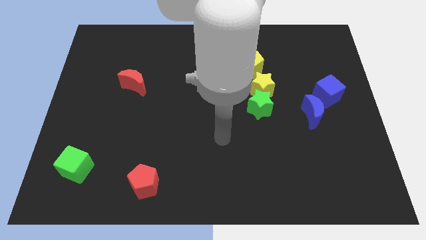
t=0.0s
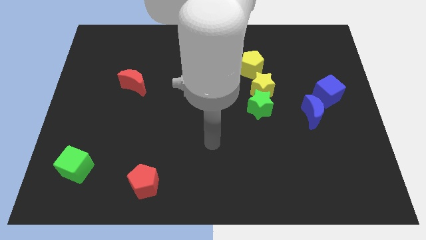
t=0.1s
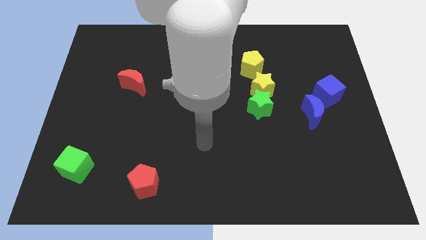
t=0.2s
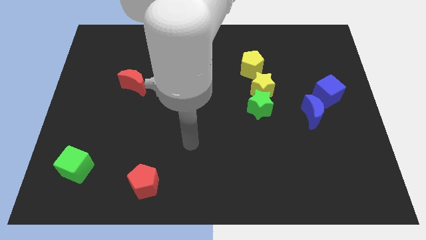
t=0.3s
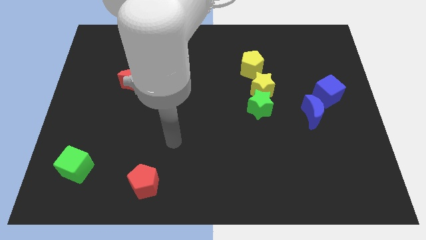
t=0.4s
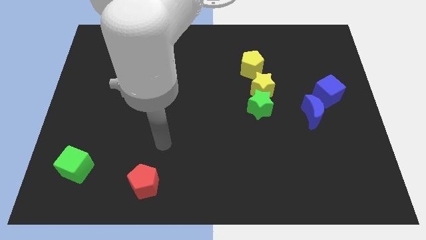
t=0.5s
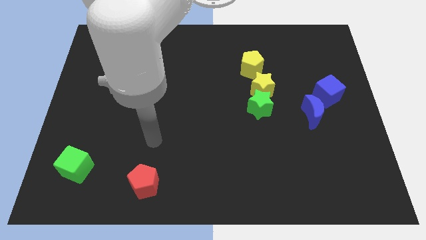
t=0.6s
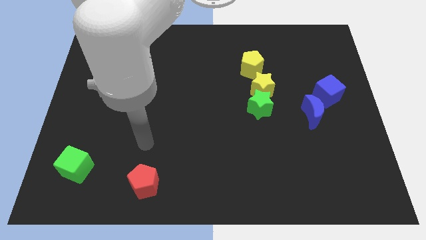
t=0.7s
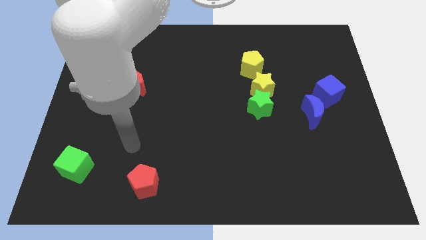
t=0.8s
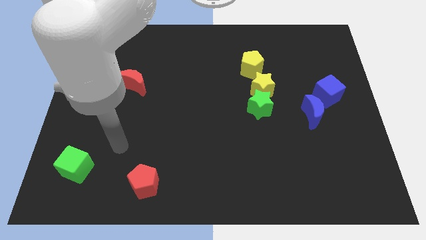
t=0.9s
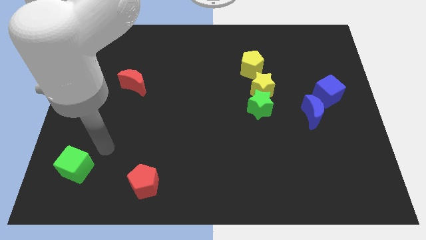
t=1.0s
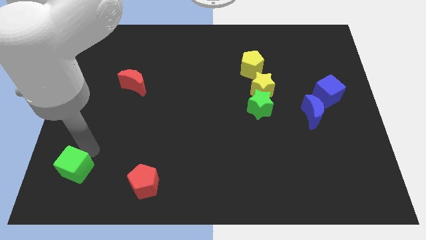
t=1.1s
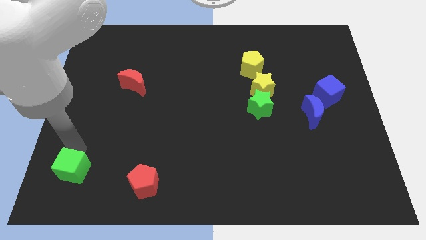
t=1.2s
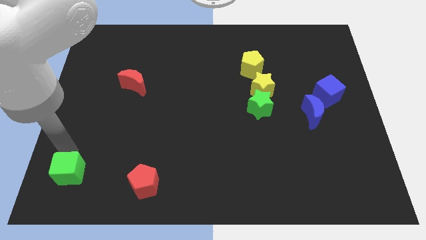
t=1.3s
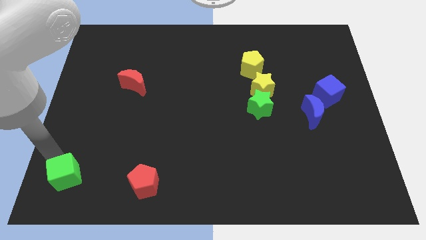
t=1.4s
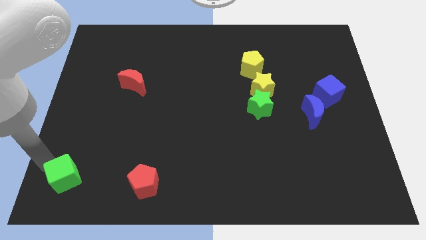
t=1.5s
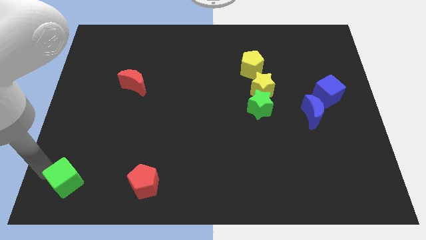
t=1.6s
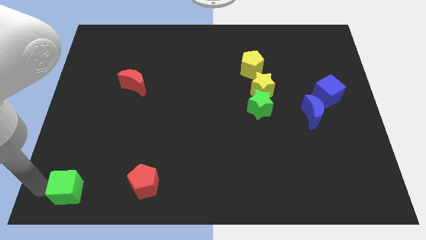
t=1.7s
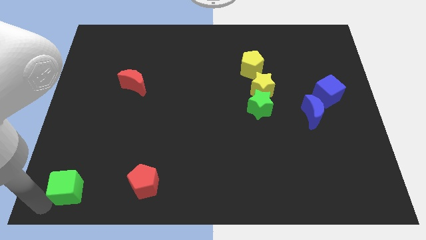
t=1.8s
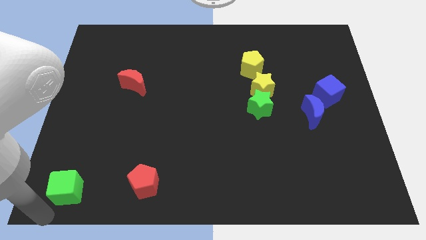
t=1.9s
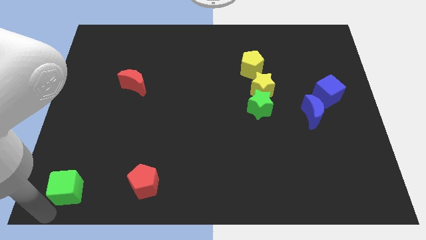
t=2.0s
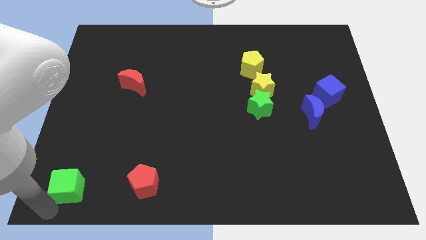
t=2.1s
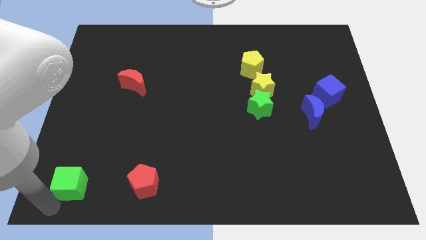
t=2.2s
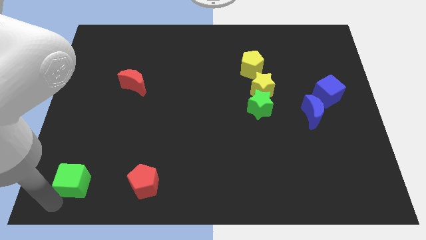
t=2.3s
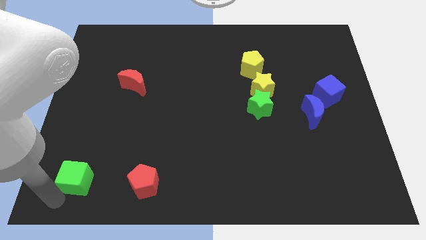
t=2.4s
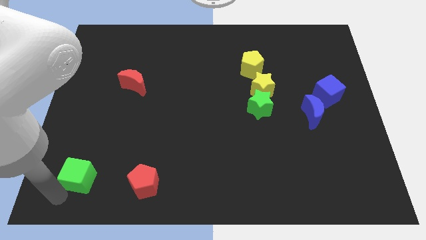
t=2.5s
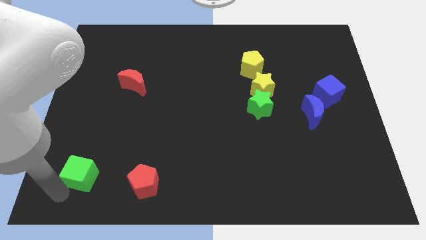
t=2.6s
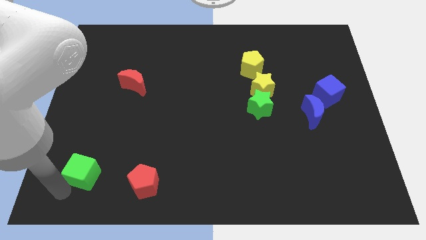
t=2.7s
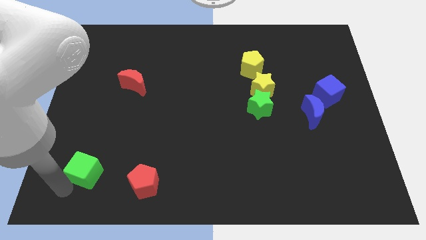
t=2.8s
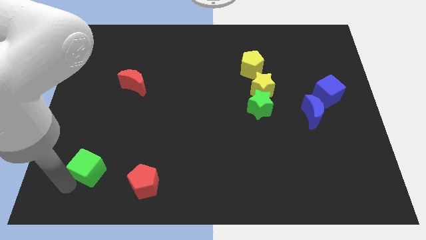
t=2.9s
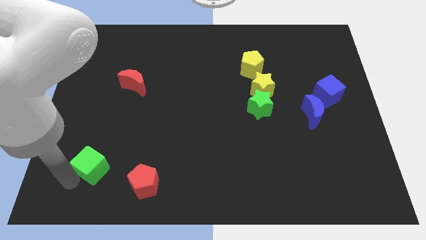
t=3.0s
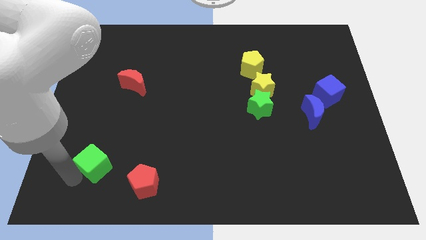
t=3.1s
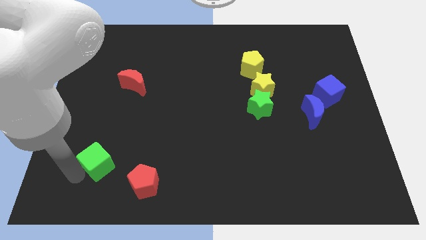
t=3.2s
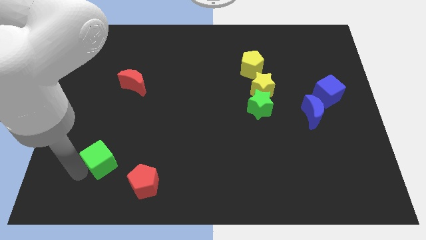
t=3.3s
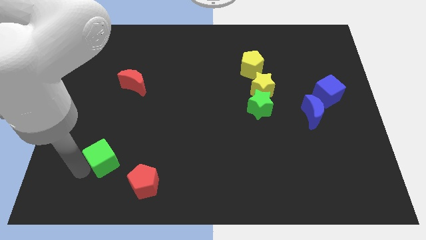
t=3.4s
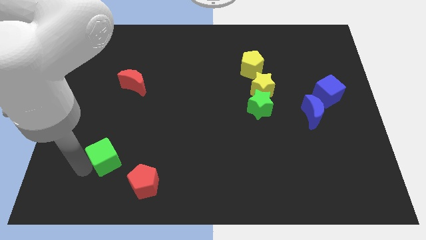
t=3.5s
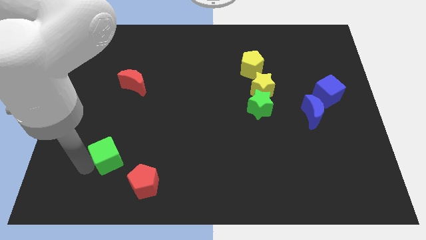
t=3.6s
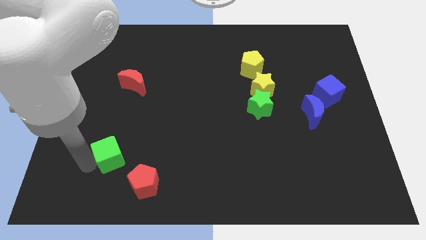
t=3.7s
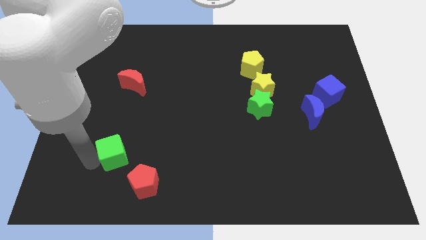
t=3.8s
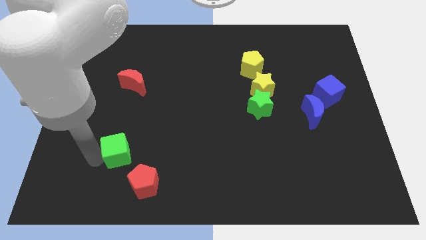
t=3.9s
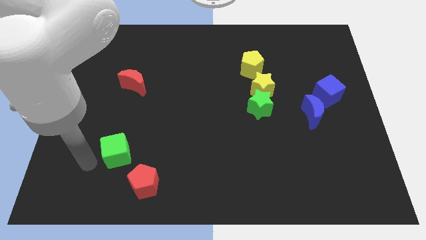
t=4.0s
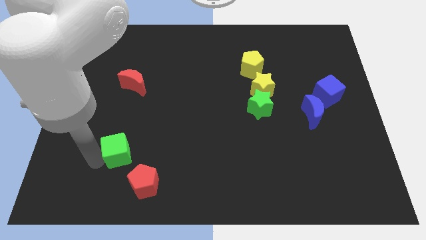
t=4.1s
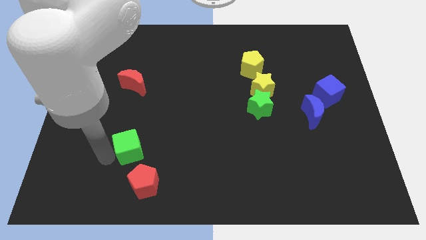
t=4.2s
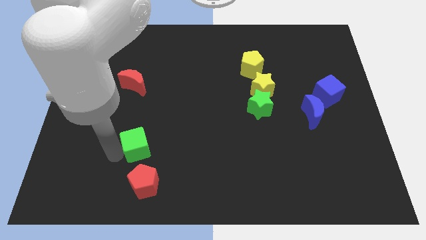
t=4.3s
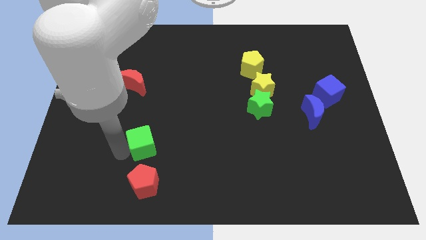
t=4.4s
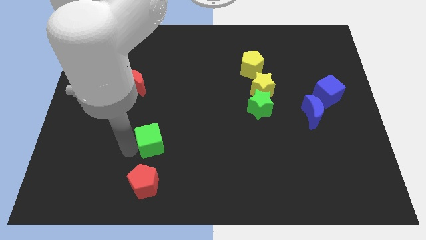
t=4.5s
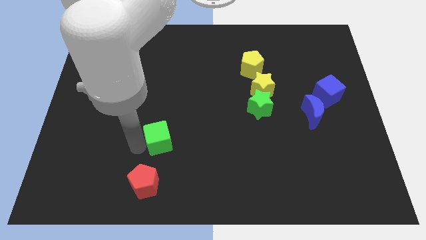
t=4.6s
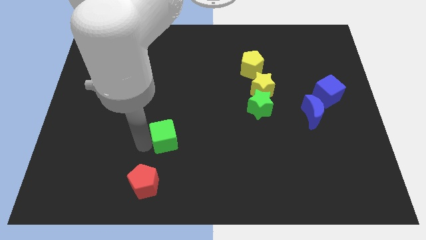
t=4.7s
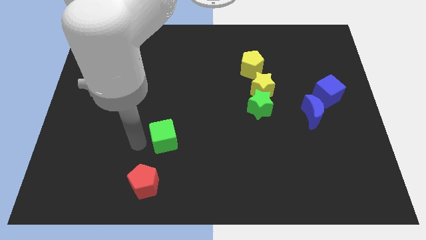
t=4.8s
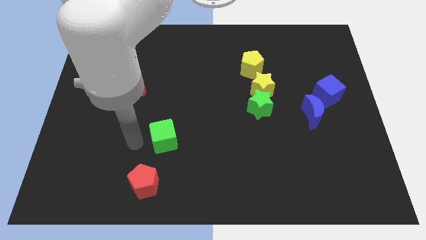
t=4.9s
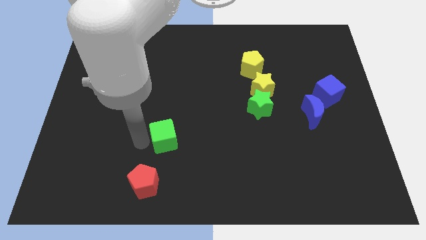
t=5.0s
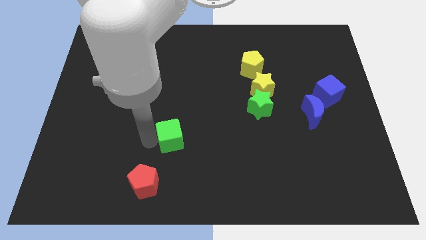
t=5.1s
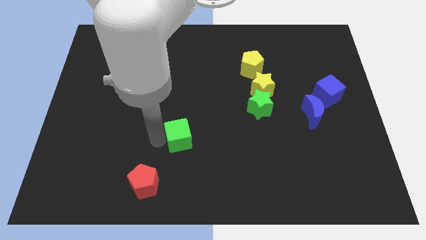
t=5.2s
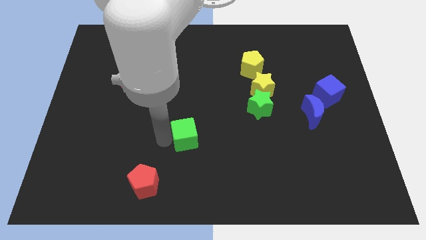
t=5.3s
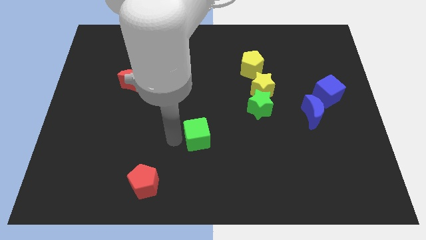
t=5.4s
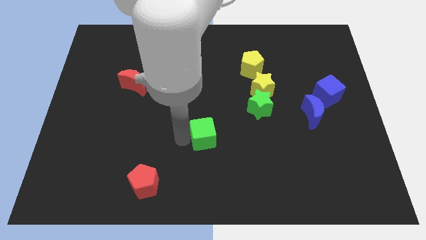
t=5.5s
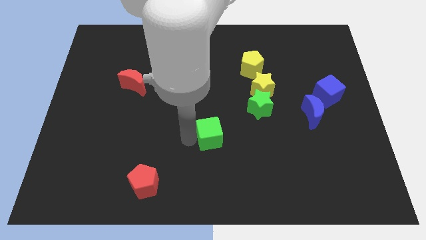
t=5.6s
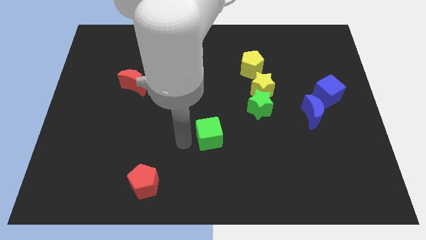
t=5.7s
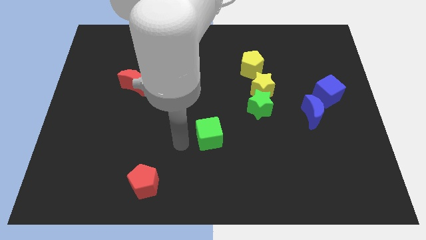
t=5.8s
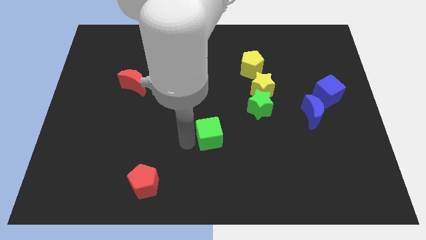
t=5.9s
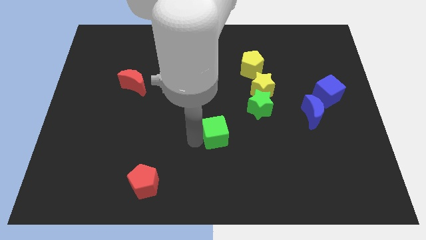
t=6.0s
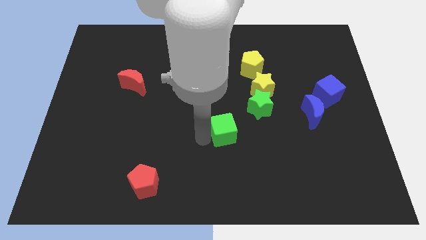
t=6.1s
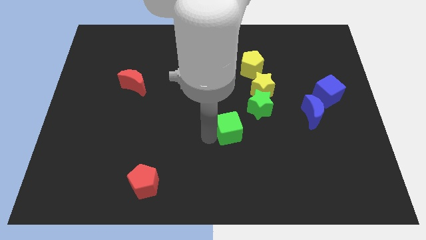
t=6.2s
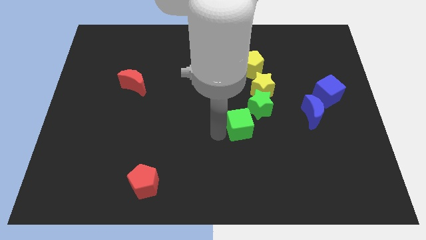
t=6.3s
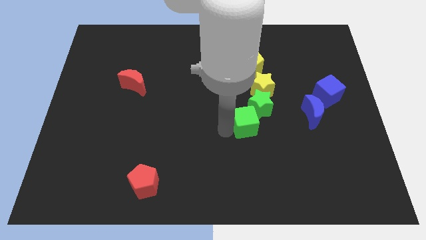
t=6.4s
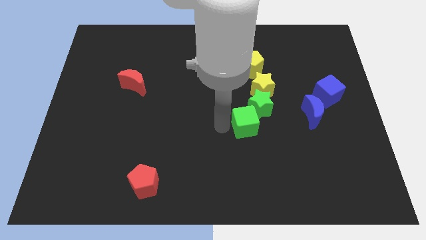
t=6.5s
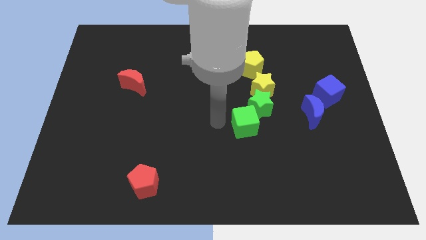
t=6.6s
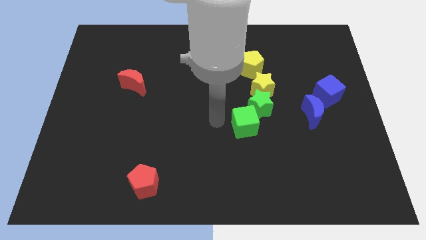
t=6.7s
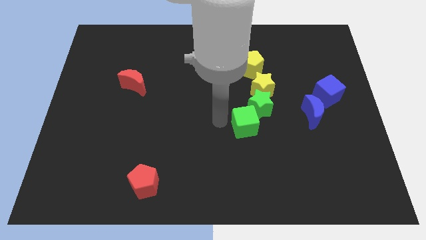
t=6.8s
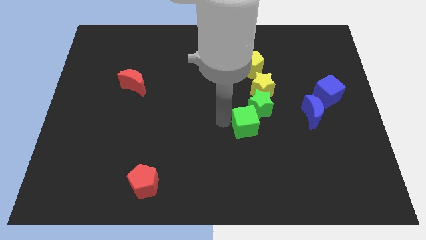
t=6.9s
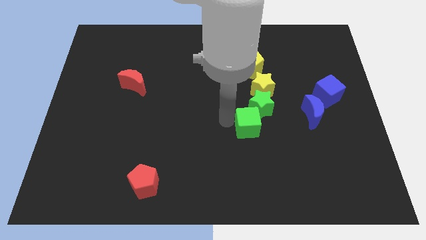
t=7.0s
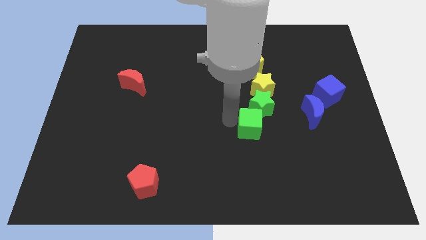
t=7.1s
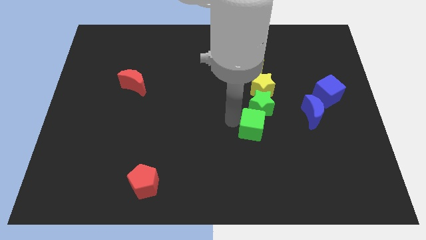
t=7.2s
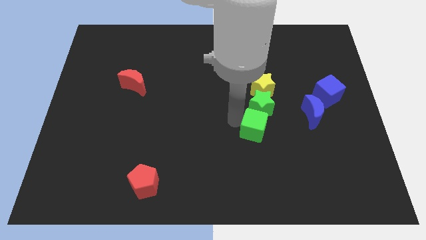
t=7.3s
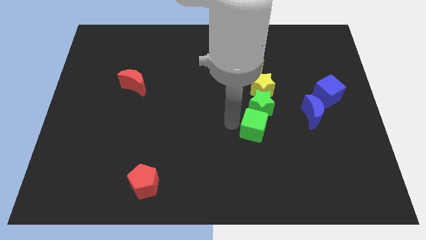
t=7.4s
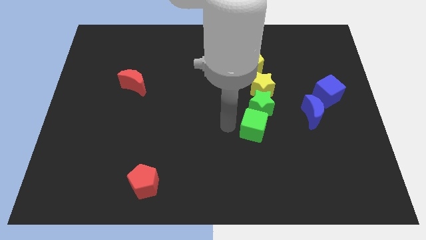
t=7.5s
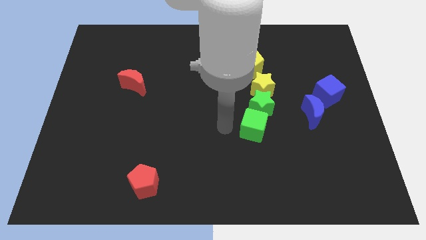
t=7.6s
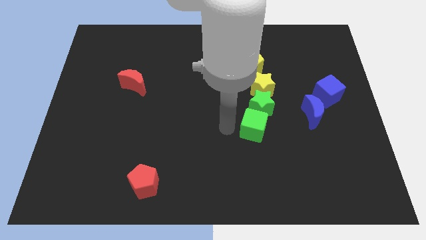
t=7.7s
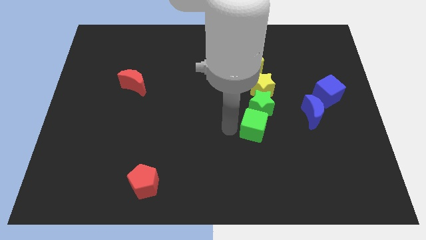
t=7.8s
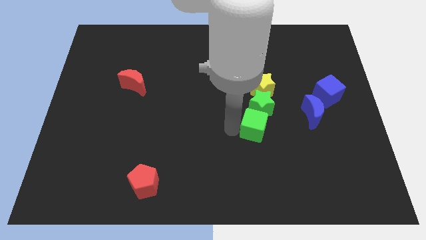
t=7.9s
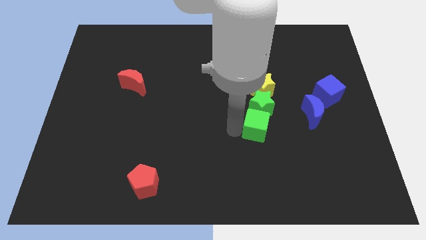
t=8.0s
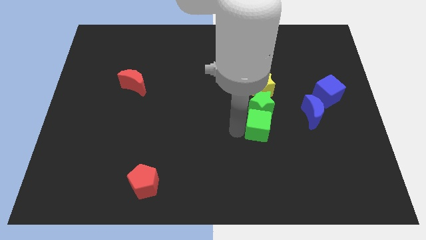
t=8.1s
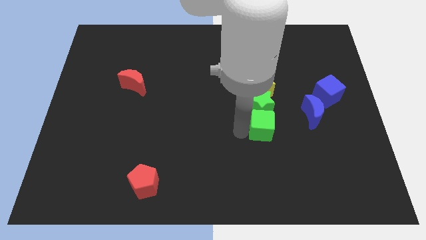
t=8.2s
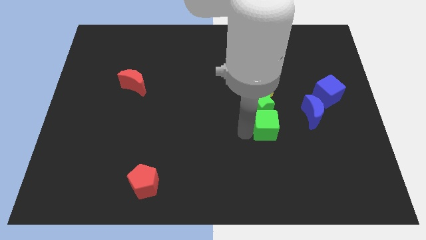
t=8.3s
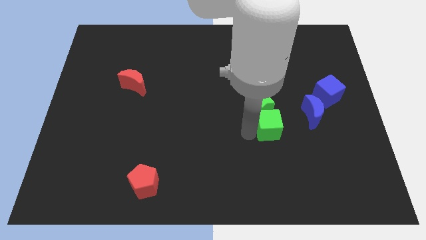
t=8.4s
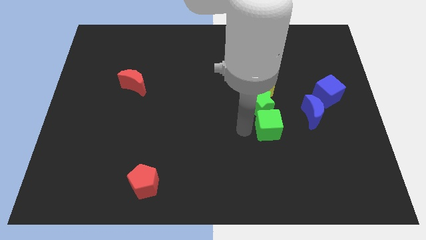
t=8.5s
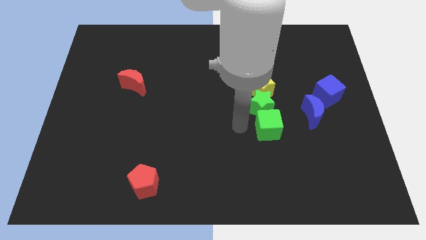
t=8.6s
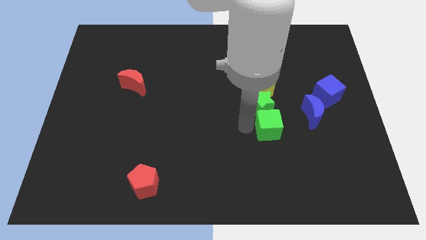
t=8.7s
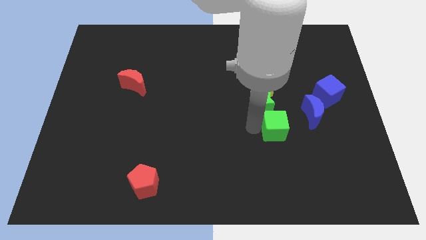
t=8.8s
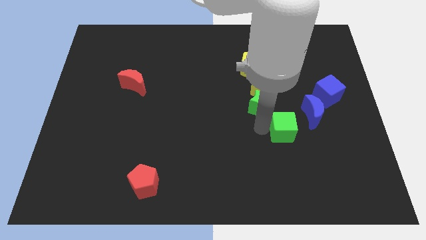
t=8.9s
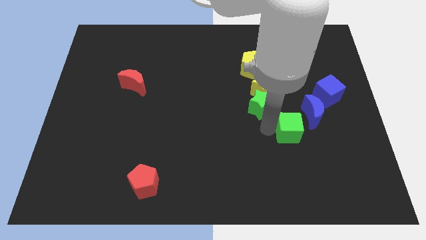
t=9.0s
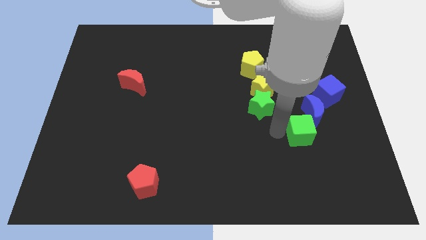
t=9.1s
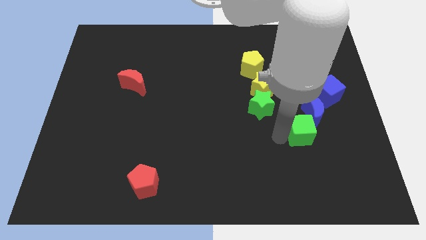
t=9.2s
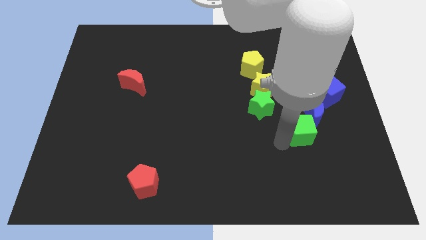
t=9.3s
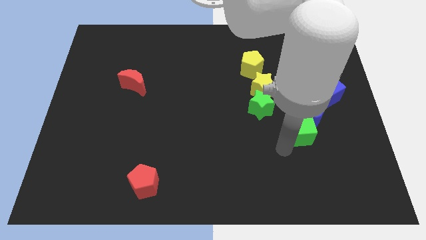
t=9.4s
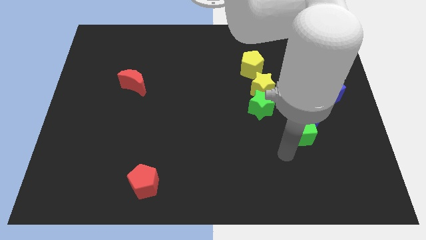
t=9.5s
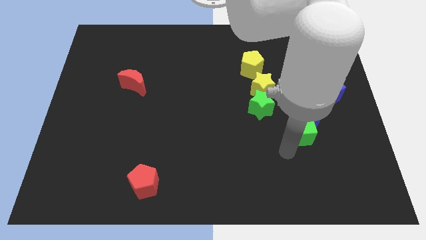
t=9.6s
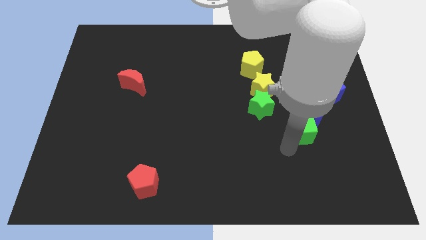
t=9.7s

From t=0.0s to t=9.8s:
put the green cube to the blue moon
